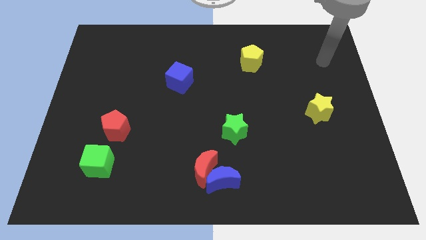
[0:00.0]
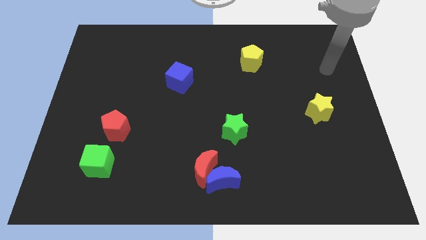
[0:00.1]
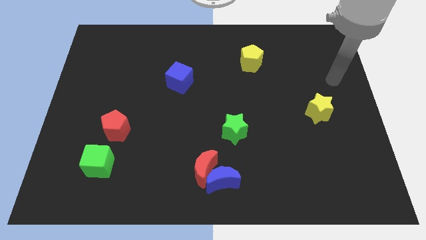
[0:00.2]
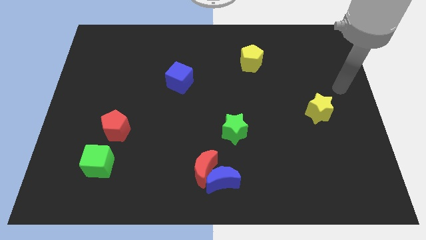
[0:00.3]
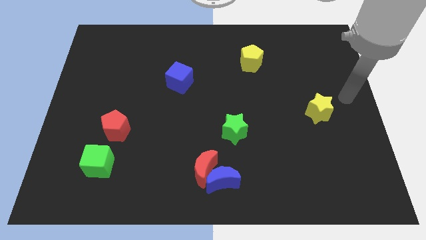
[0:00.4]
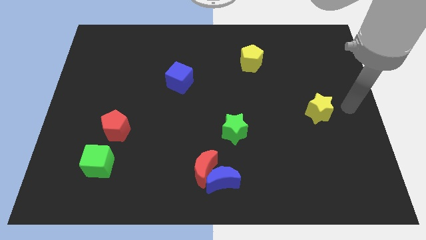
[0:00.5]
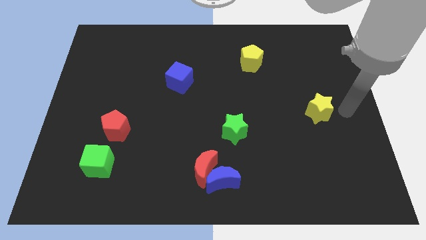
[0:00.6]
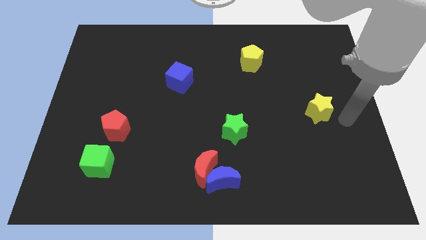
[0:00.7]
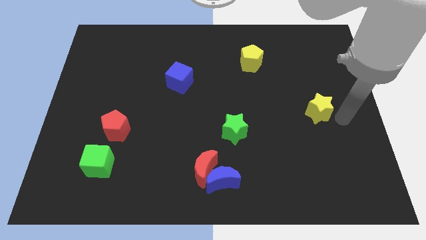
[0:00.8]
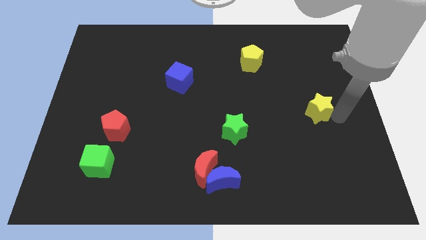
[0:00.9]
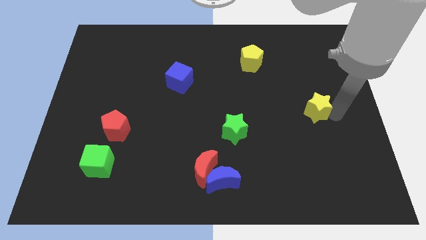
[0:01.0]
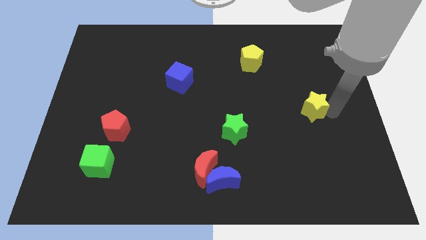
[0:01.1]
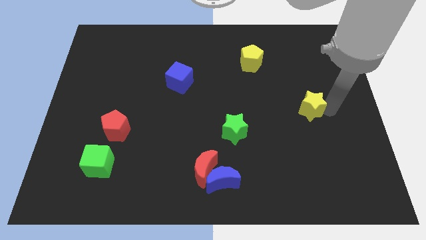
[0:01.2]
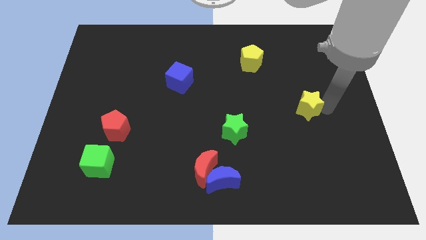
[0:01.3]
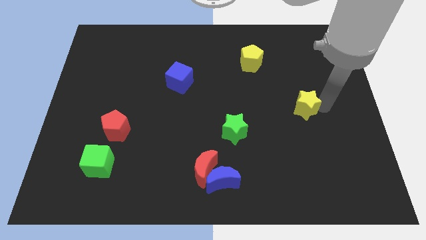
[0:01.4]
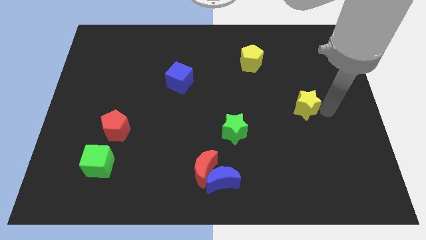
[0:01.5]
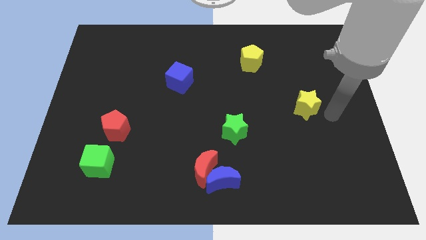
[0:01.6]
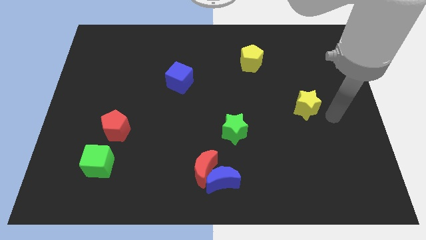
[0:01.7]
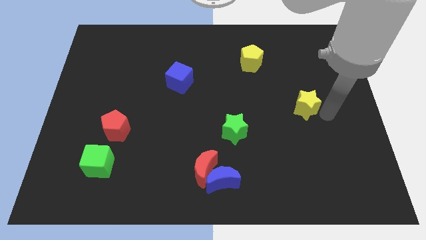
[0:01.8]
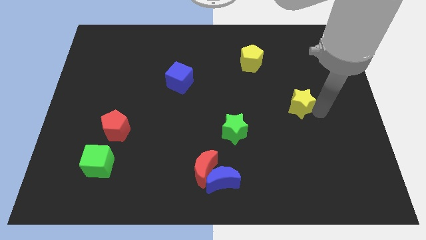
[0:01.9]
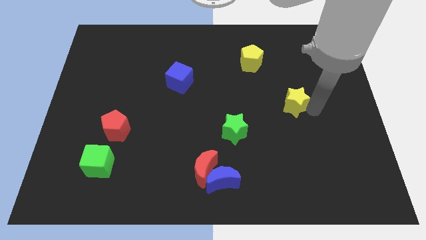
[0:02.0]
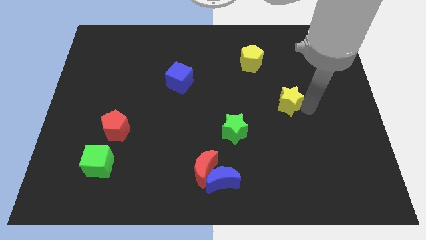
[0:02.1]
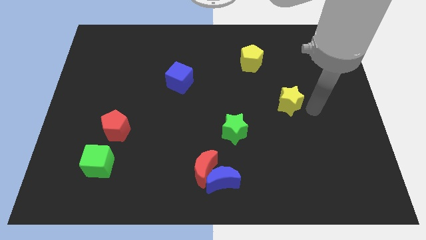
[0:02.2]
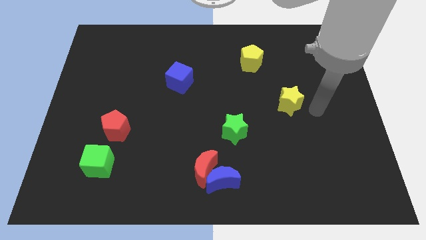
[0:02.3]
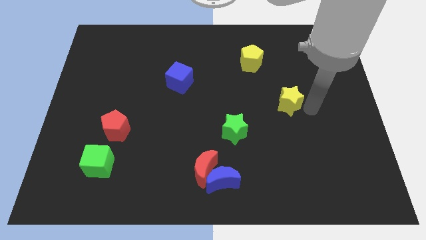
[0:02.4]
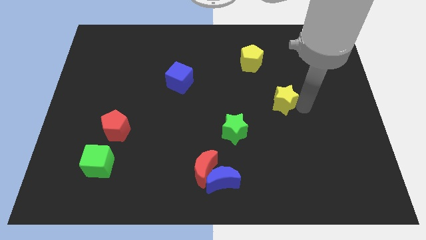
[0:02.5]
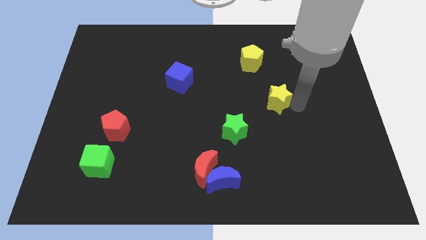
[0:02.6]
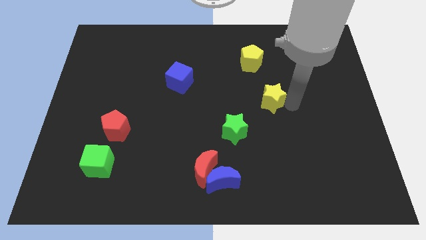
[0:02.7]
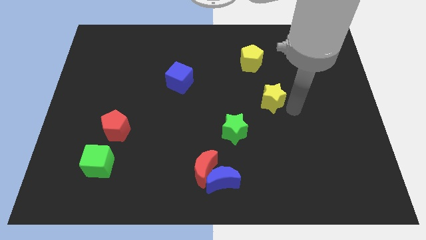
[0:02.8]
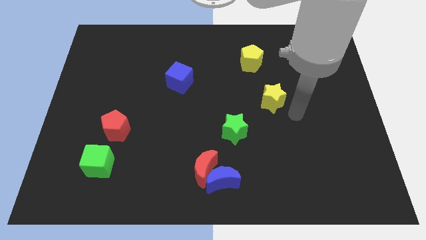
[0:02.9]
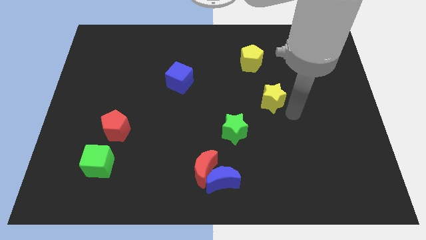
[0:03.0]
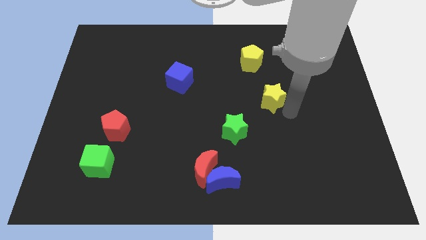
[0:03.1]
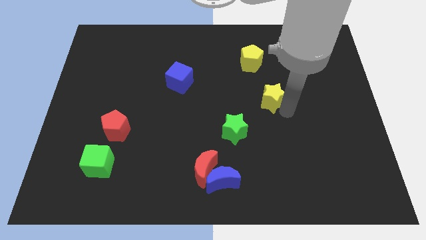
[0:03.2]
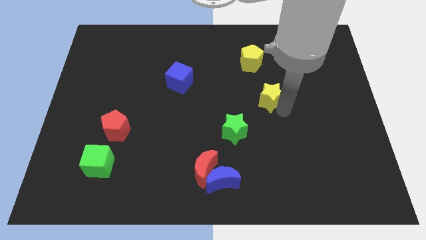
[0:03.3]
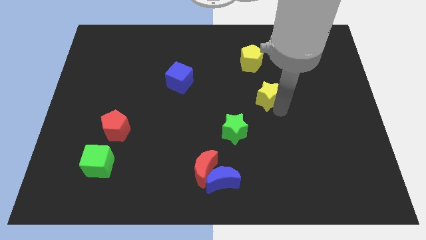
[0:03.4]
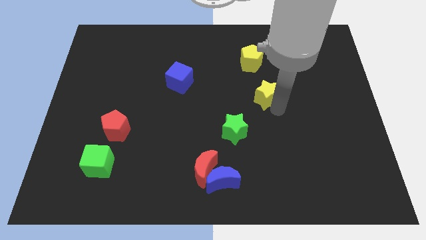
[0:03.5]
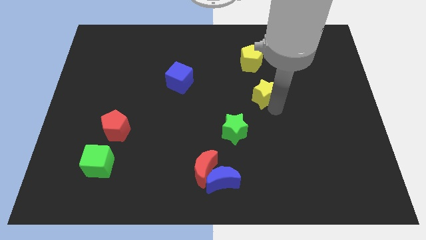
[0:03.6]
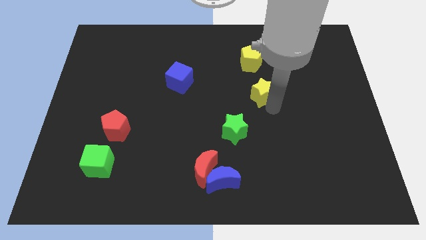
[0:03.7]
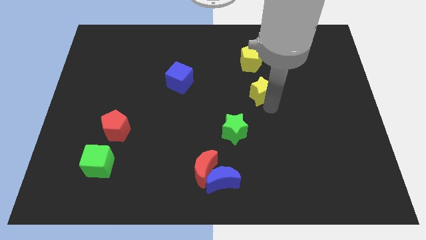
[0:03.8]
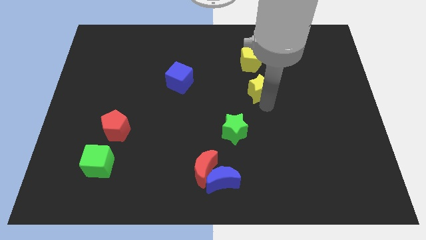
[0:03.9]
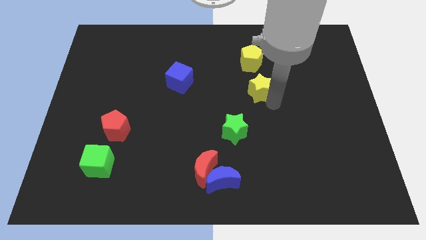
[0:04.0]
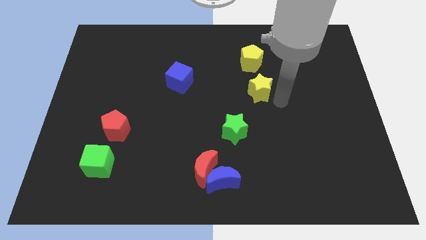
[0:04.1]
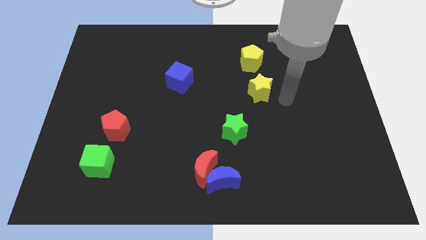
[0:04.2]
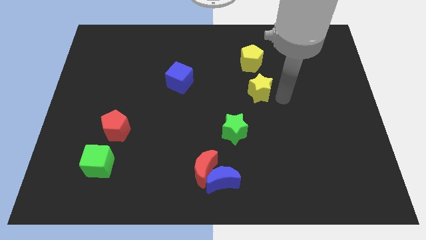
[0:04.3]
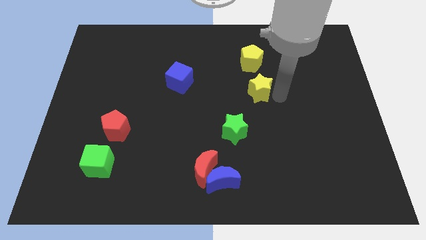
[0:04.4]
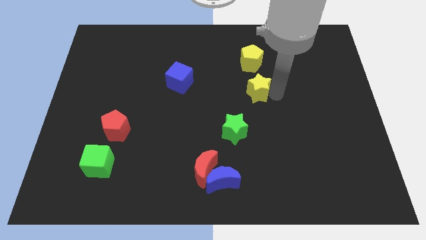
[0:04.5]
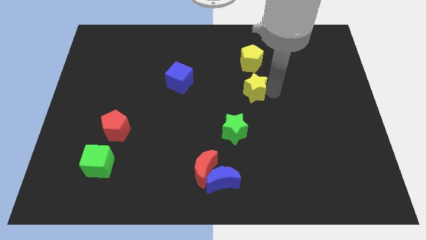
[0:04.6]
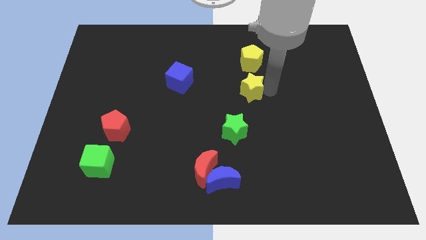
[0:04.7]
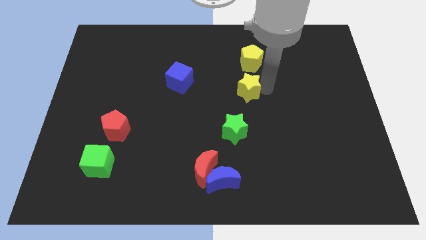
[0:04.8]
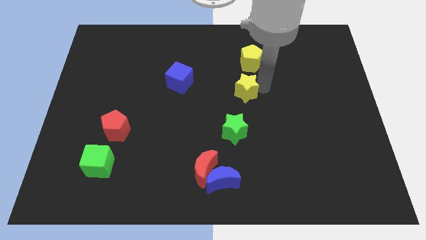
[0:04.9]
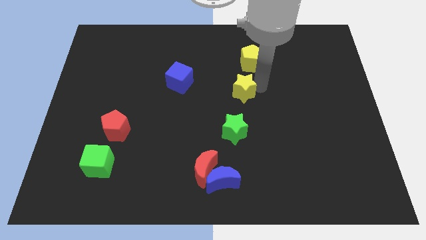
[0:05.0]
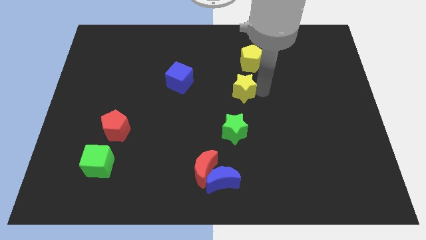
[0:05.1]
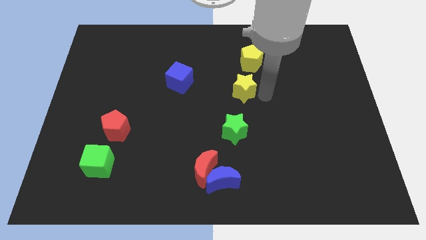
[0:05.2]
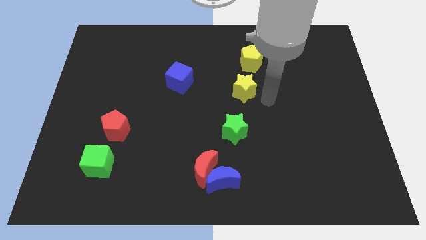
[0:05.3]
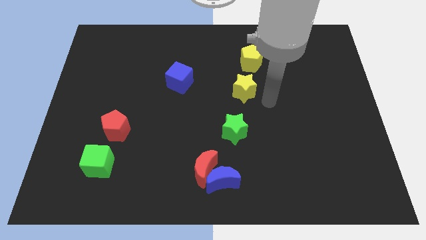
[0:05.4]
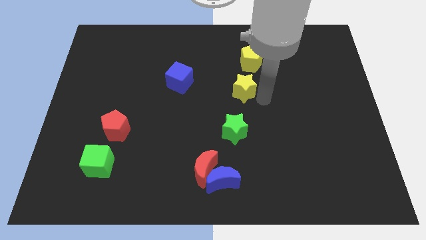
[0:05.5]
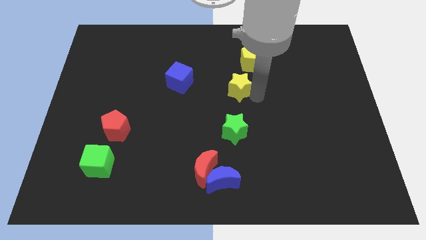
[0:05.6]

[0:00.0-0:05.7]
push the yellow star just right of the blue cube

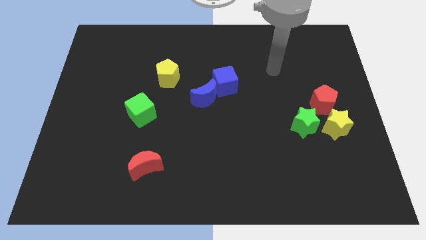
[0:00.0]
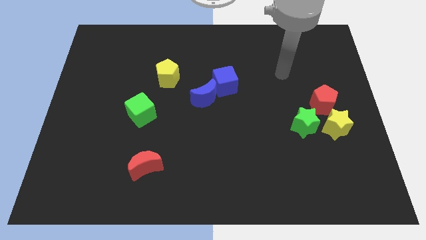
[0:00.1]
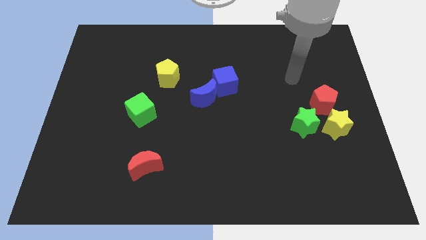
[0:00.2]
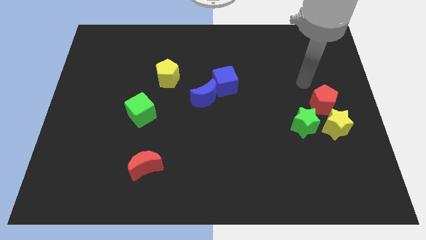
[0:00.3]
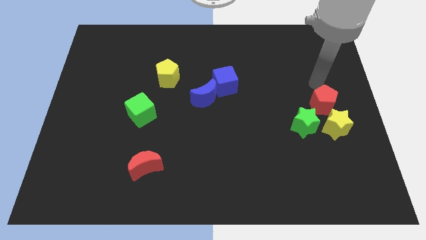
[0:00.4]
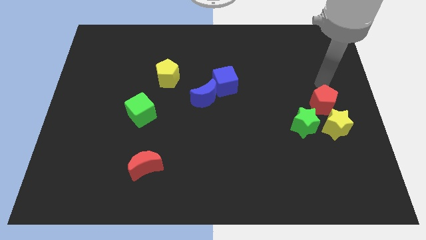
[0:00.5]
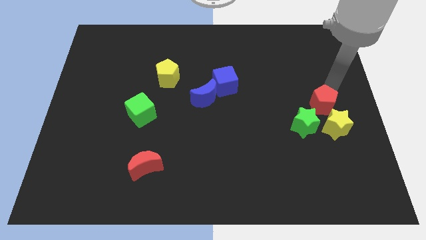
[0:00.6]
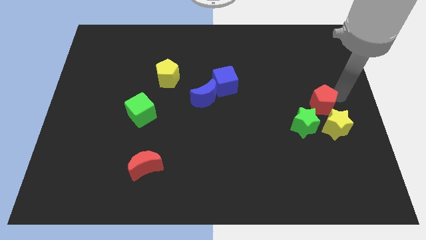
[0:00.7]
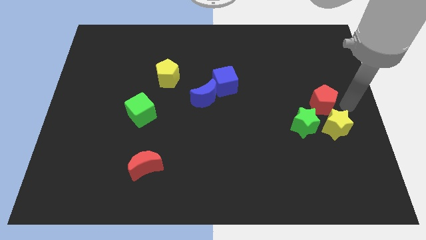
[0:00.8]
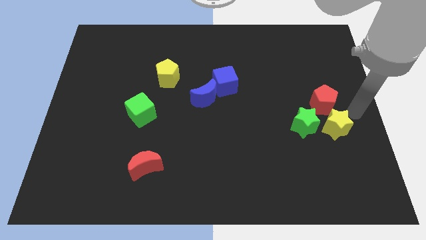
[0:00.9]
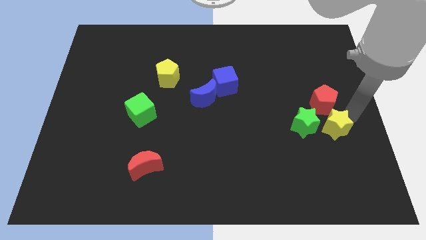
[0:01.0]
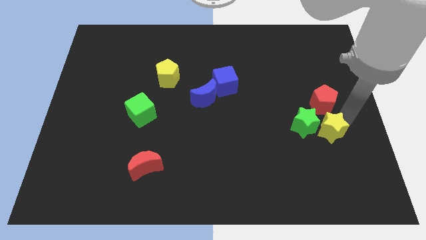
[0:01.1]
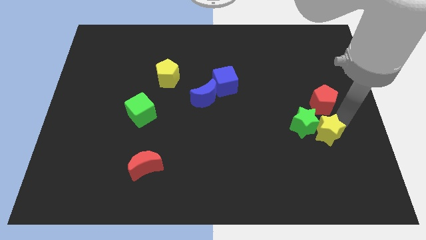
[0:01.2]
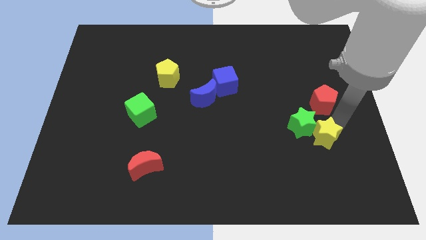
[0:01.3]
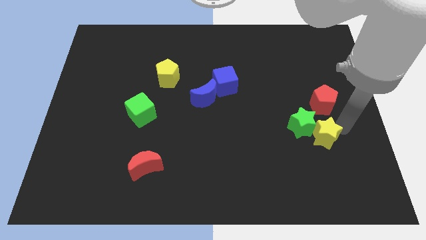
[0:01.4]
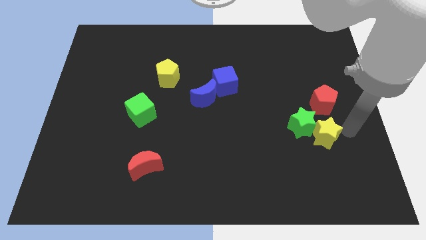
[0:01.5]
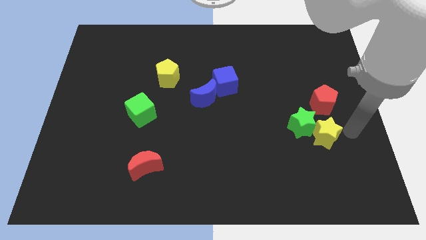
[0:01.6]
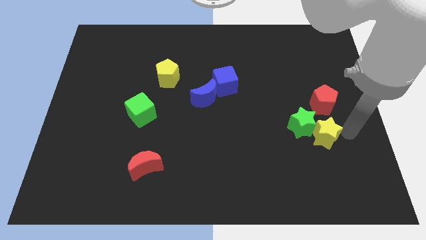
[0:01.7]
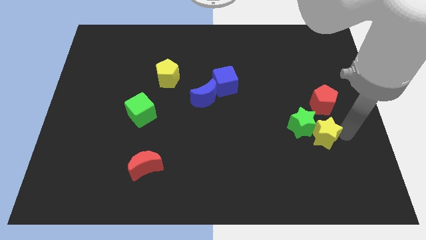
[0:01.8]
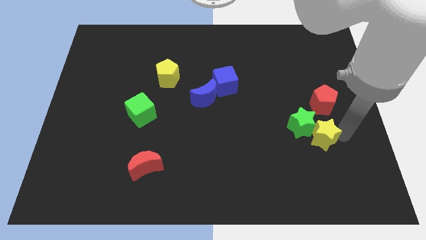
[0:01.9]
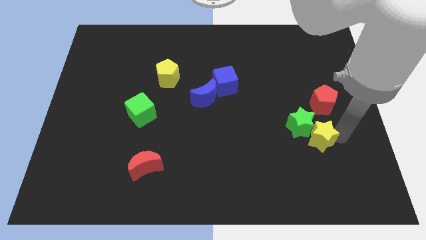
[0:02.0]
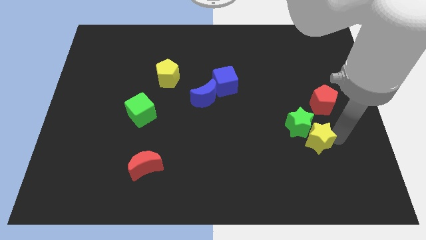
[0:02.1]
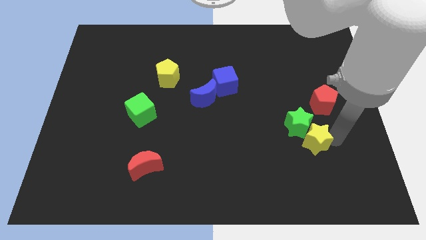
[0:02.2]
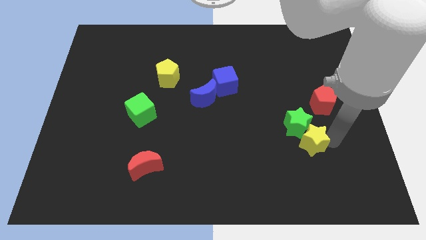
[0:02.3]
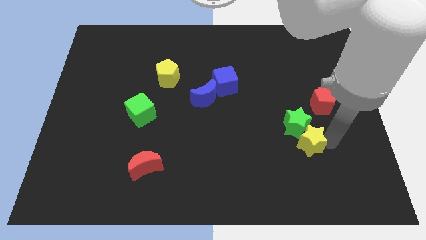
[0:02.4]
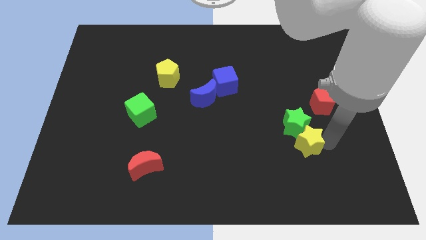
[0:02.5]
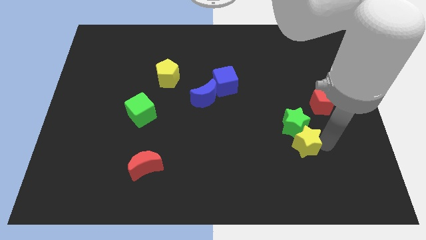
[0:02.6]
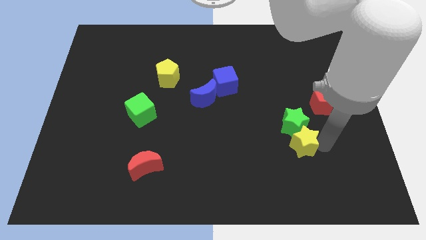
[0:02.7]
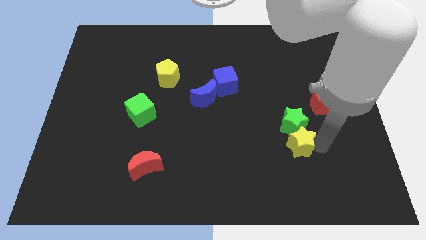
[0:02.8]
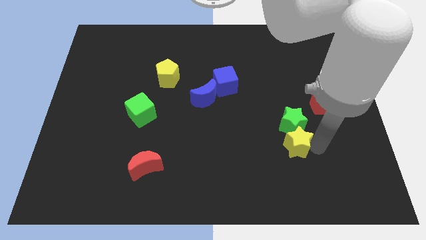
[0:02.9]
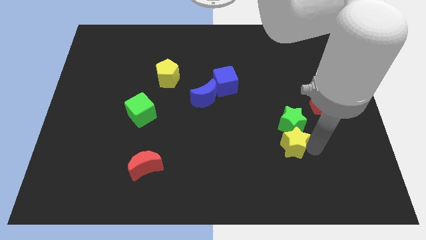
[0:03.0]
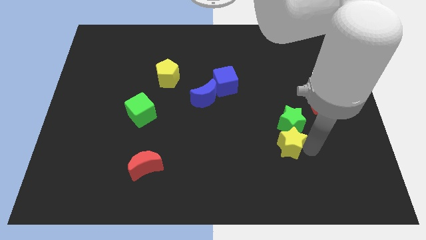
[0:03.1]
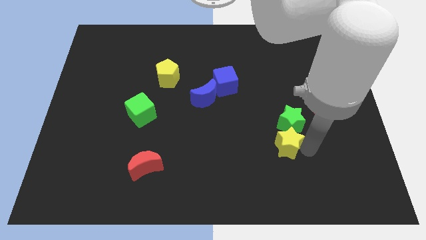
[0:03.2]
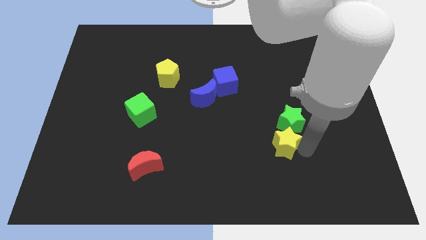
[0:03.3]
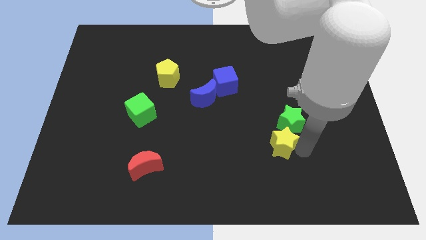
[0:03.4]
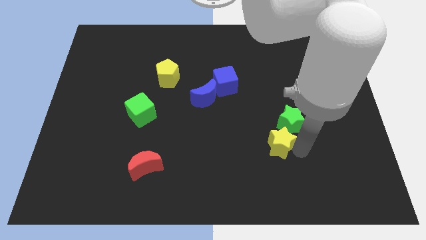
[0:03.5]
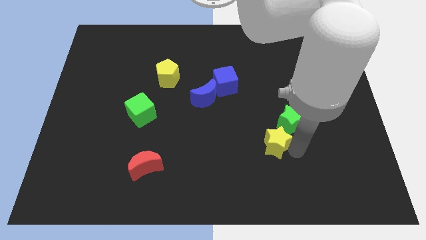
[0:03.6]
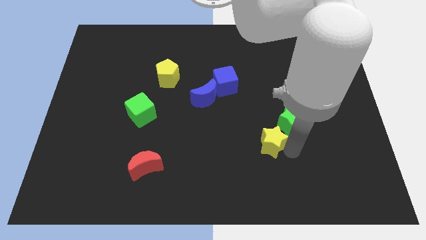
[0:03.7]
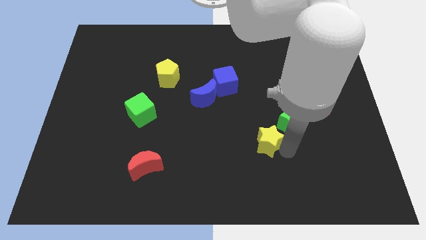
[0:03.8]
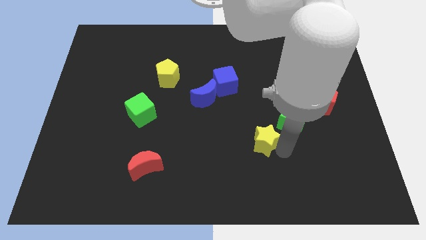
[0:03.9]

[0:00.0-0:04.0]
push the yellow star just left of the green star
